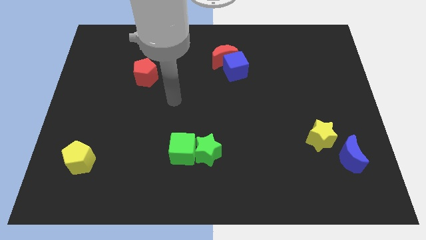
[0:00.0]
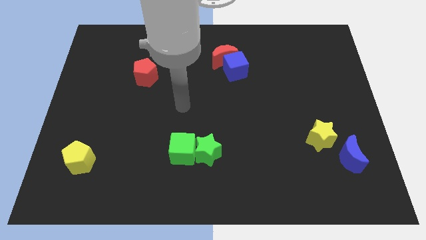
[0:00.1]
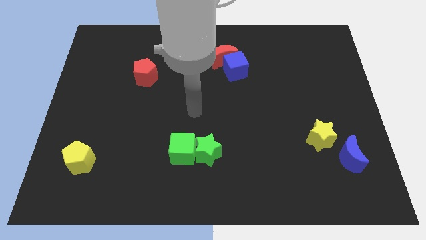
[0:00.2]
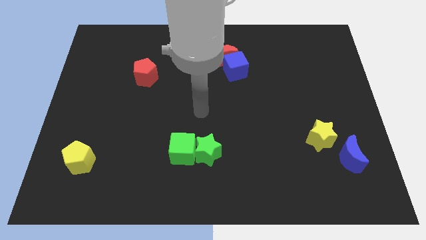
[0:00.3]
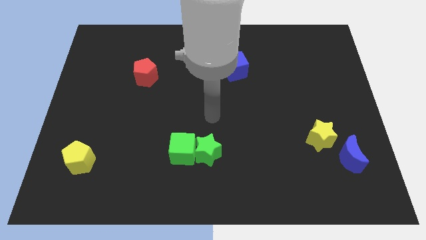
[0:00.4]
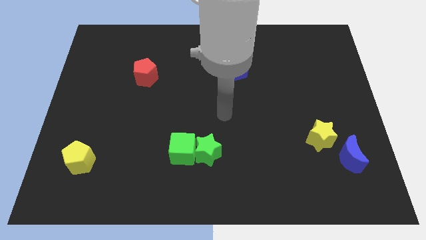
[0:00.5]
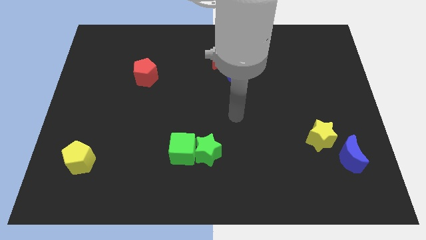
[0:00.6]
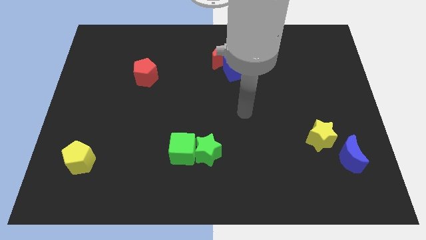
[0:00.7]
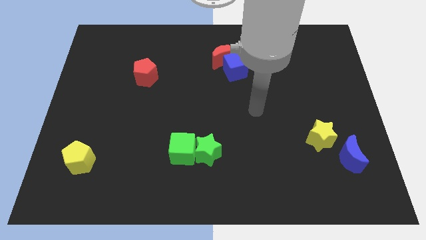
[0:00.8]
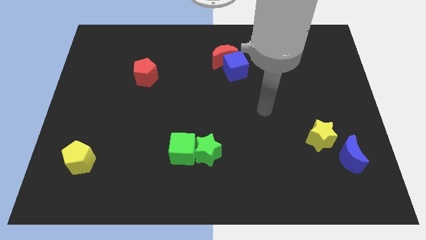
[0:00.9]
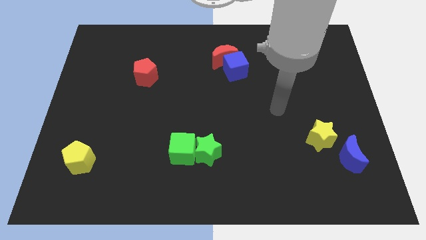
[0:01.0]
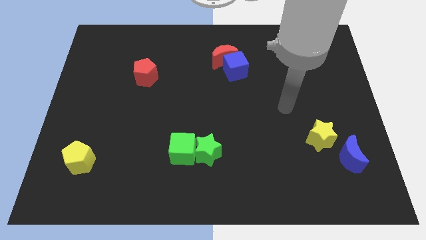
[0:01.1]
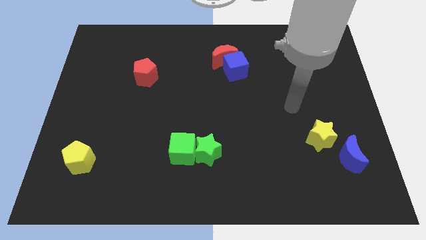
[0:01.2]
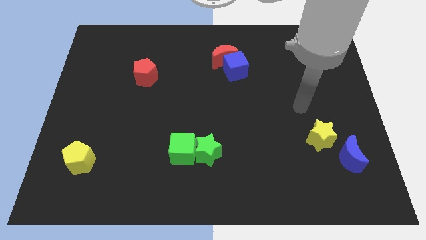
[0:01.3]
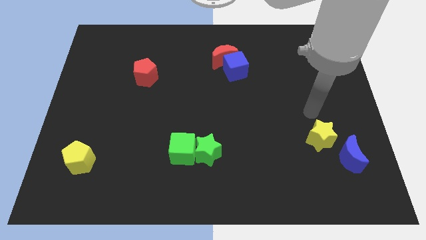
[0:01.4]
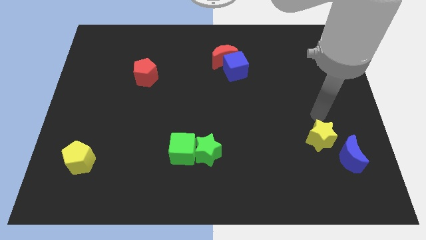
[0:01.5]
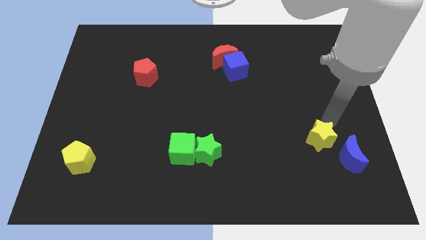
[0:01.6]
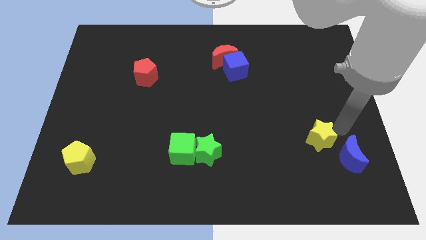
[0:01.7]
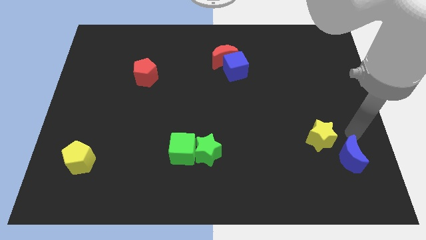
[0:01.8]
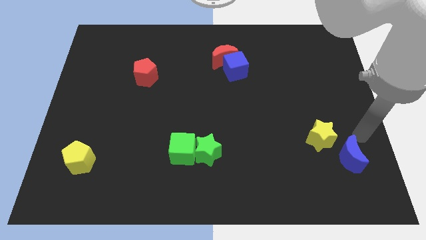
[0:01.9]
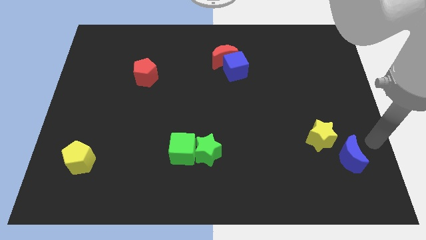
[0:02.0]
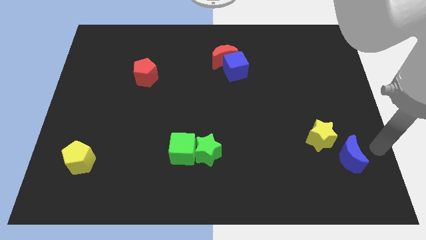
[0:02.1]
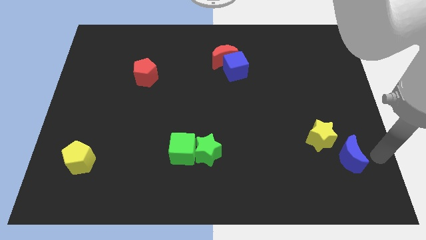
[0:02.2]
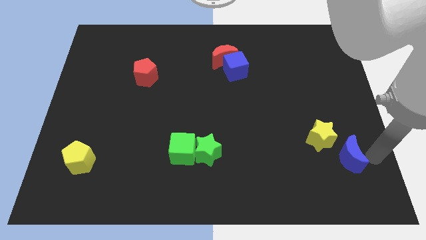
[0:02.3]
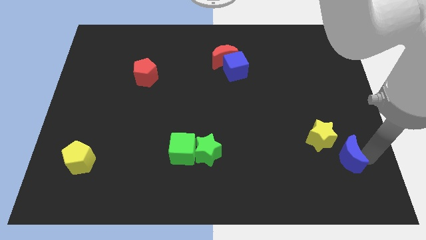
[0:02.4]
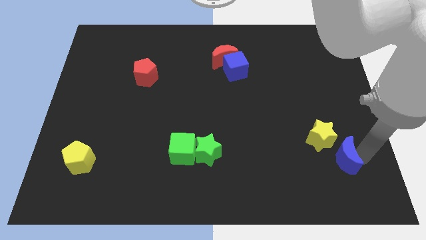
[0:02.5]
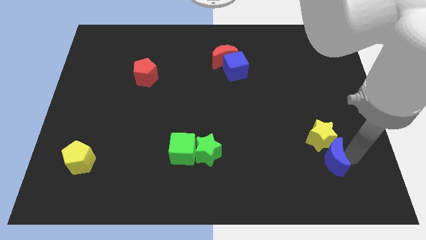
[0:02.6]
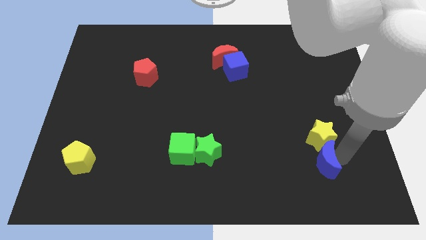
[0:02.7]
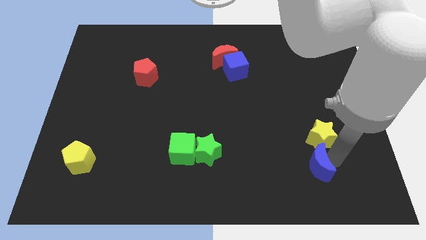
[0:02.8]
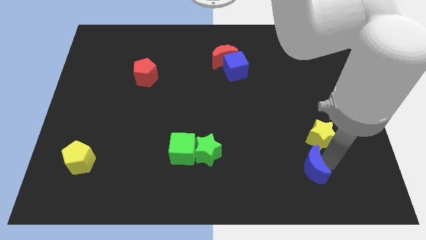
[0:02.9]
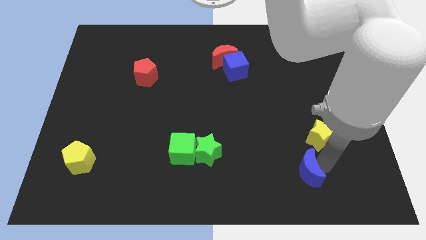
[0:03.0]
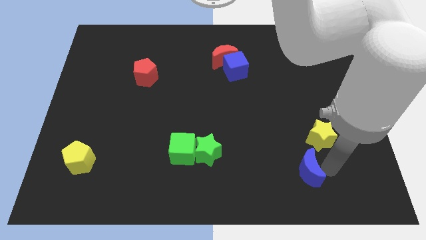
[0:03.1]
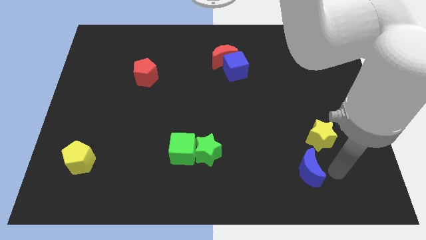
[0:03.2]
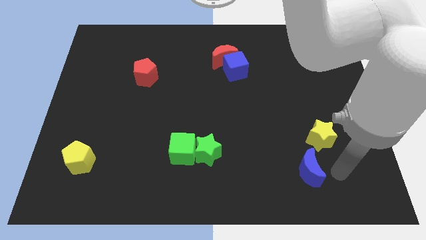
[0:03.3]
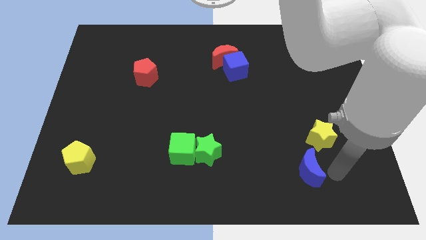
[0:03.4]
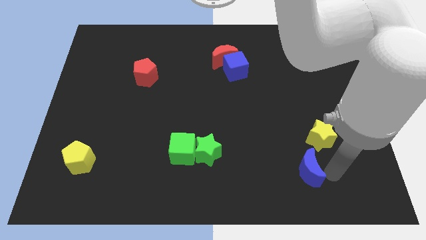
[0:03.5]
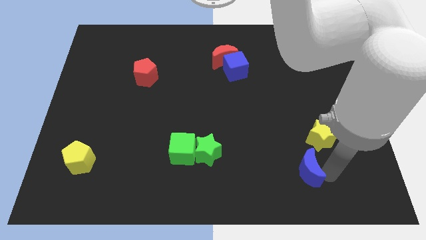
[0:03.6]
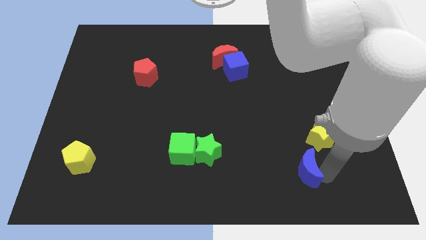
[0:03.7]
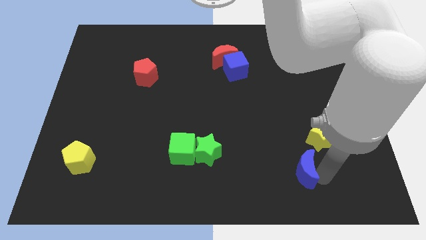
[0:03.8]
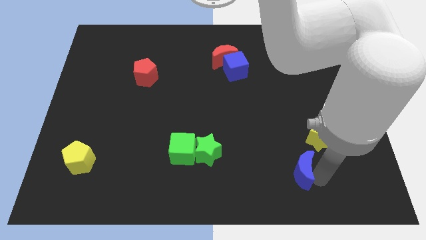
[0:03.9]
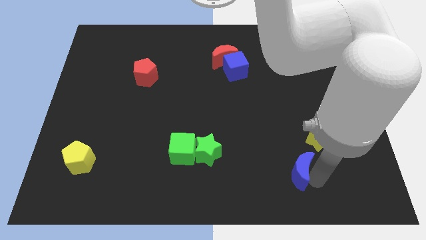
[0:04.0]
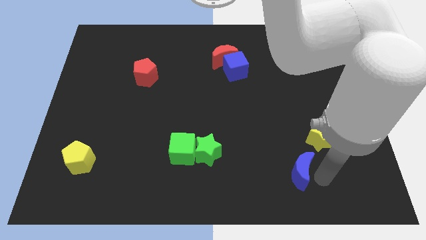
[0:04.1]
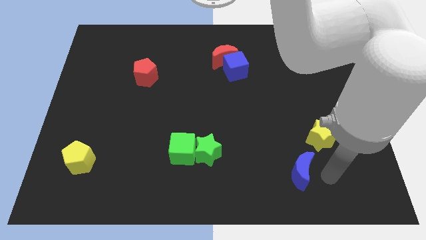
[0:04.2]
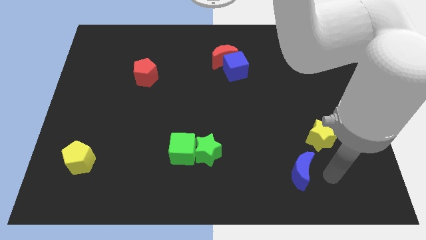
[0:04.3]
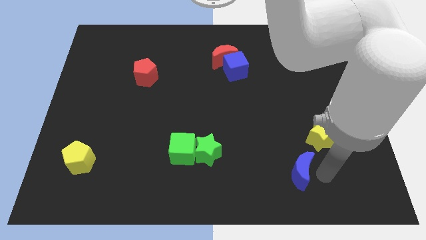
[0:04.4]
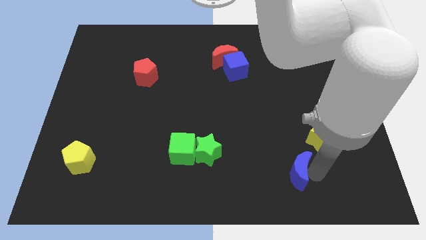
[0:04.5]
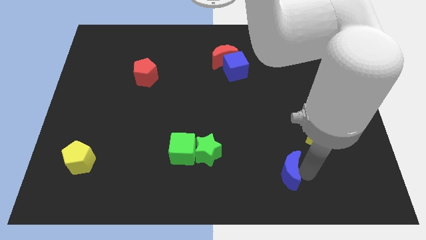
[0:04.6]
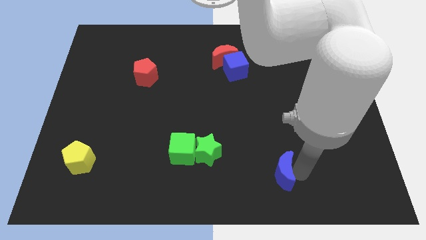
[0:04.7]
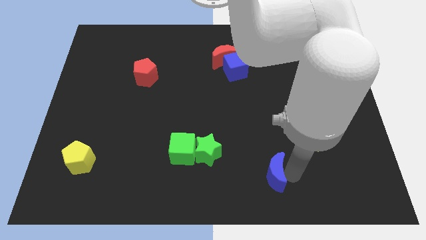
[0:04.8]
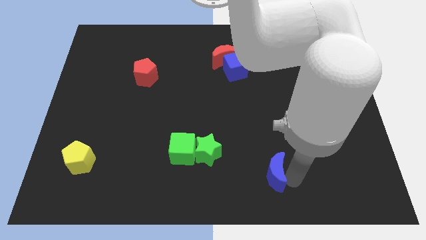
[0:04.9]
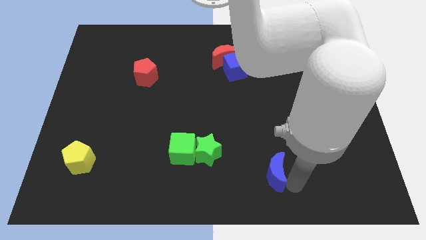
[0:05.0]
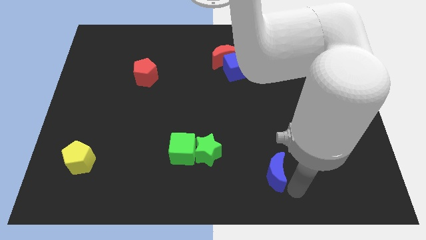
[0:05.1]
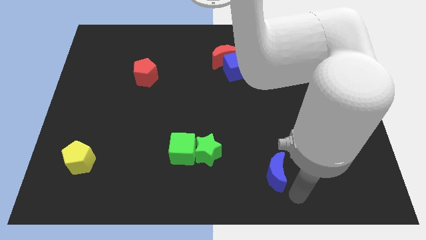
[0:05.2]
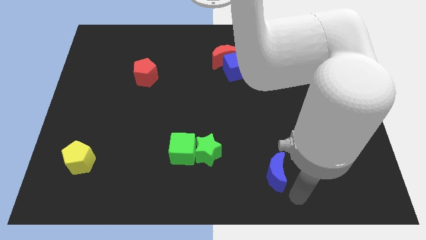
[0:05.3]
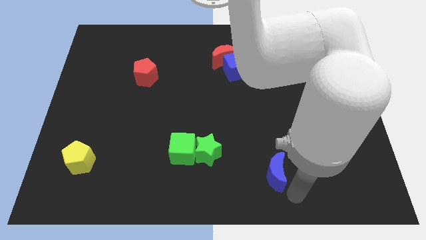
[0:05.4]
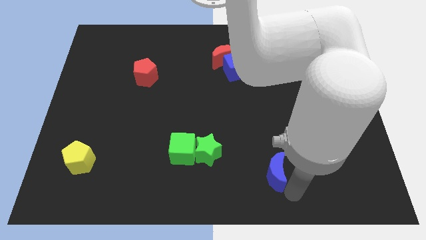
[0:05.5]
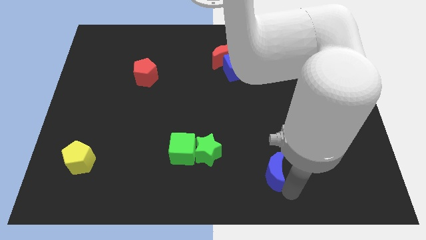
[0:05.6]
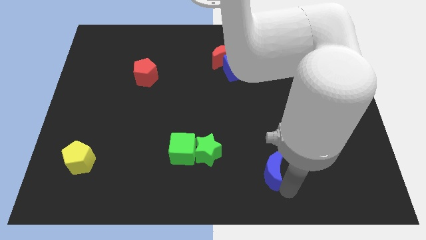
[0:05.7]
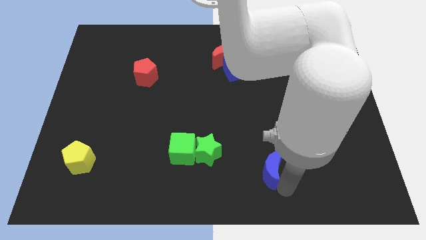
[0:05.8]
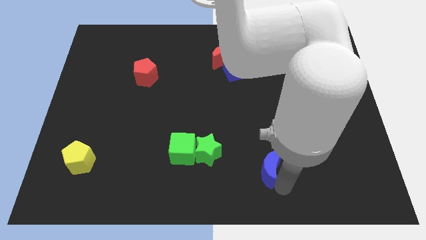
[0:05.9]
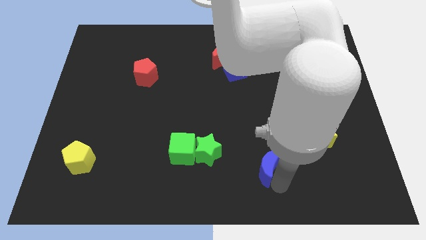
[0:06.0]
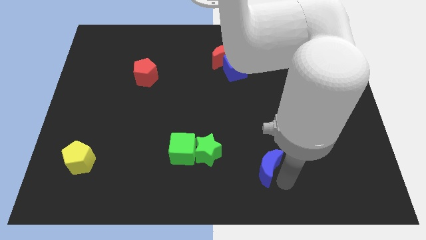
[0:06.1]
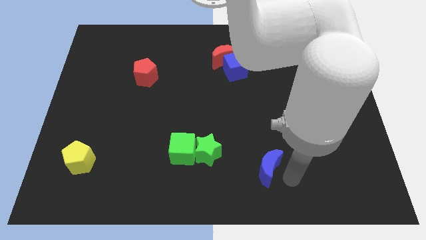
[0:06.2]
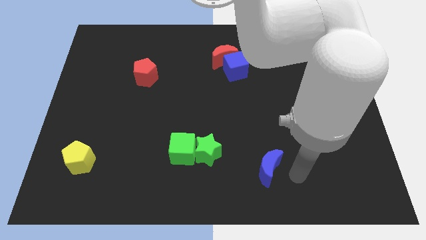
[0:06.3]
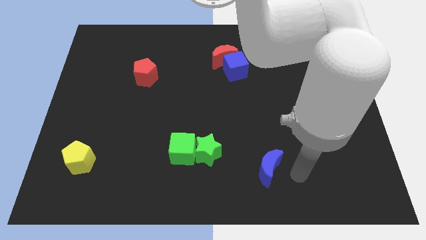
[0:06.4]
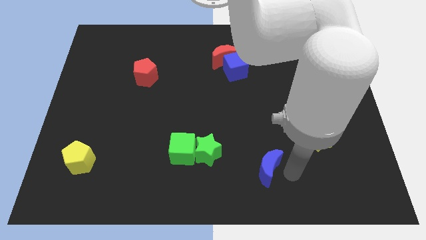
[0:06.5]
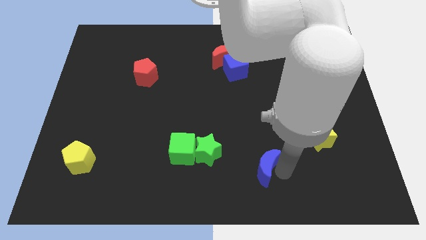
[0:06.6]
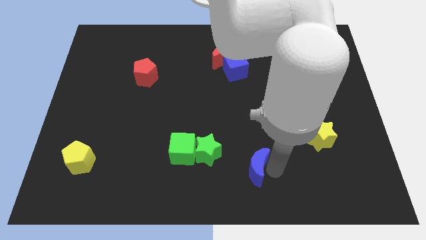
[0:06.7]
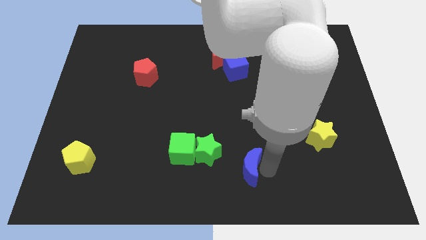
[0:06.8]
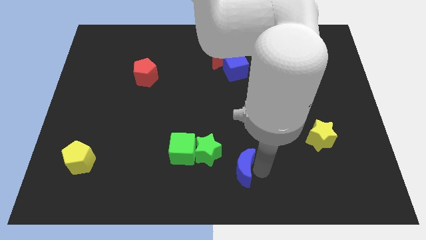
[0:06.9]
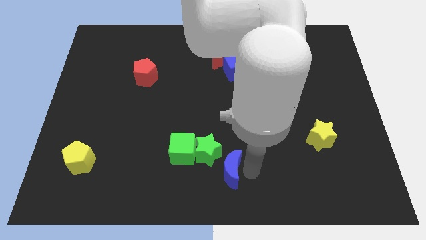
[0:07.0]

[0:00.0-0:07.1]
slide the blue moon to the green star
